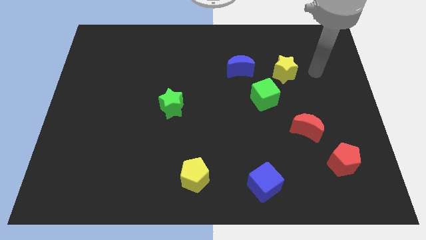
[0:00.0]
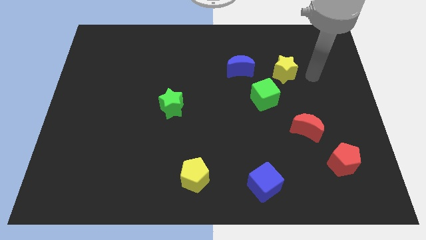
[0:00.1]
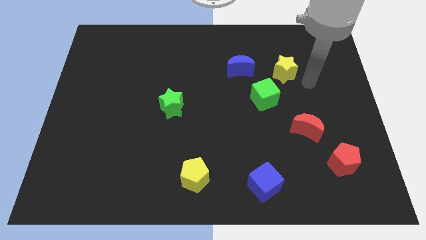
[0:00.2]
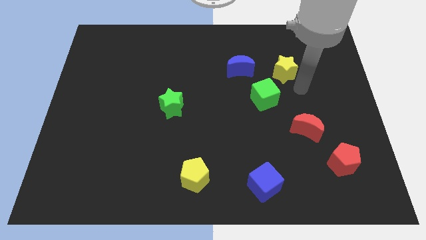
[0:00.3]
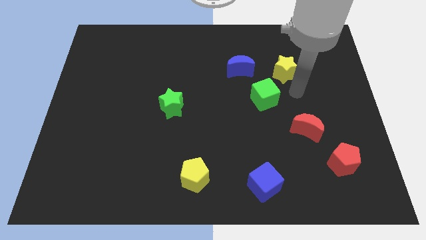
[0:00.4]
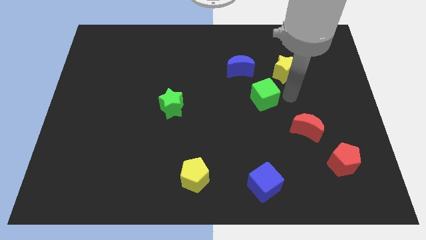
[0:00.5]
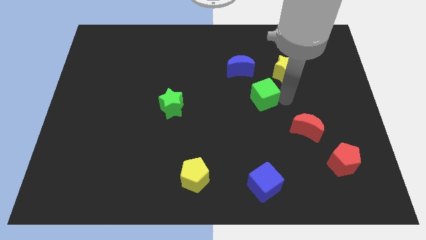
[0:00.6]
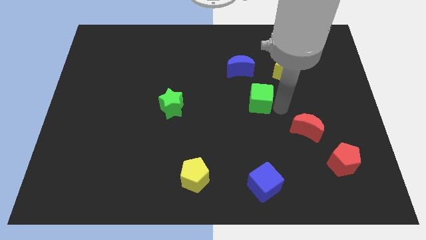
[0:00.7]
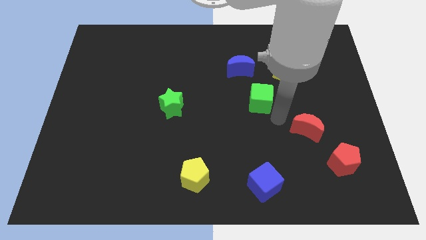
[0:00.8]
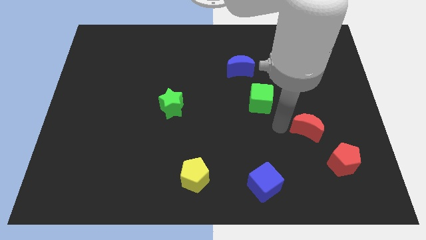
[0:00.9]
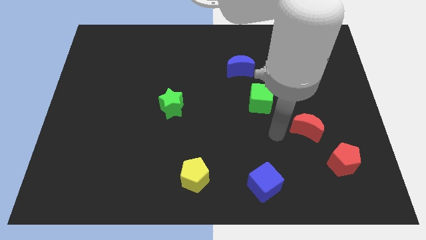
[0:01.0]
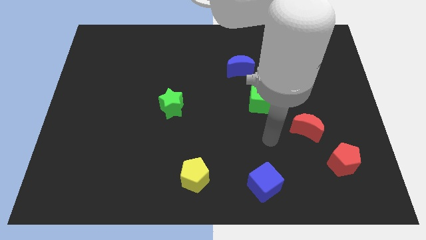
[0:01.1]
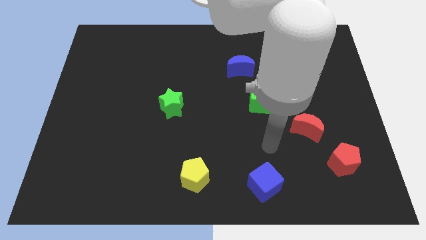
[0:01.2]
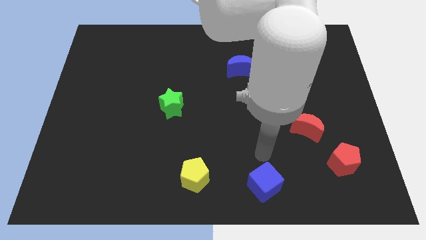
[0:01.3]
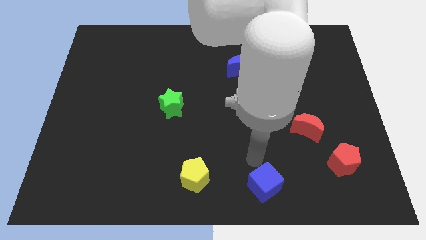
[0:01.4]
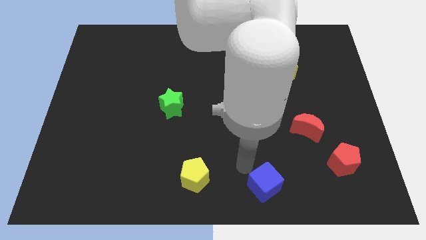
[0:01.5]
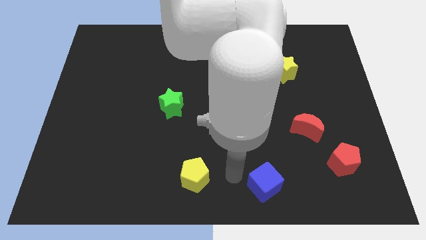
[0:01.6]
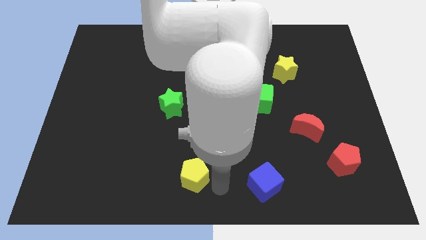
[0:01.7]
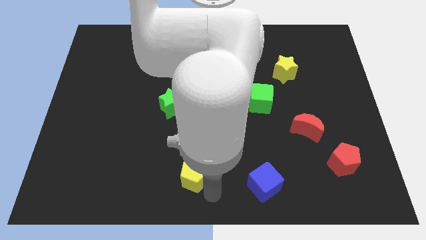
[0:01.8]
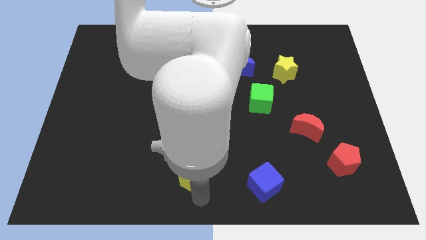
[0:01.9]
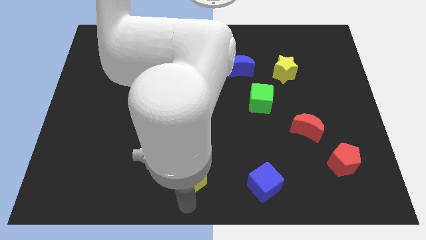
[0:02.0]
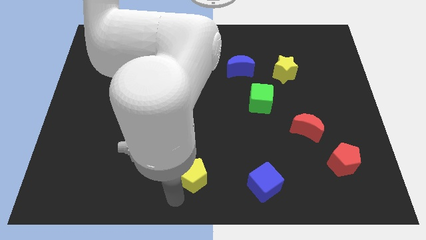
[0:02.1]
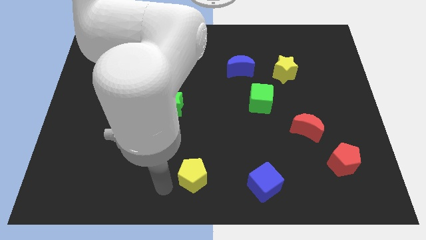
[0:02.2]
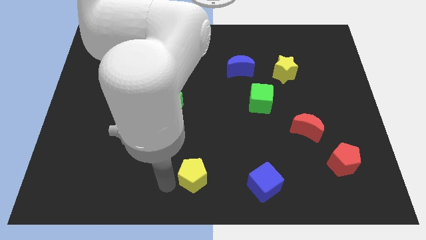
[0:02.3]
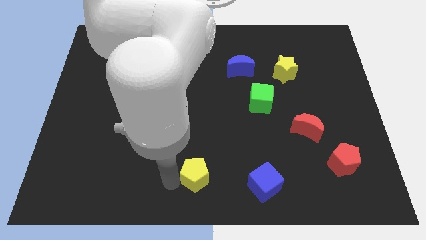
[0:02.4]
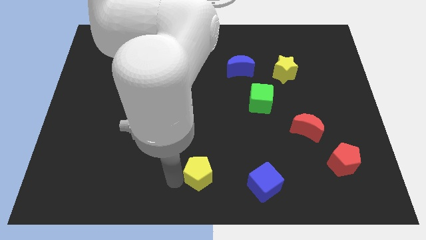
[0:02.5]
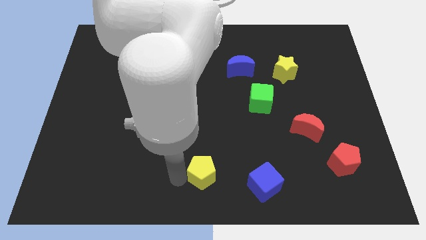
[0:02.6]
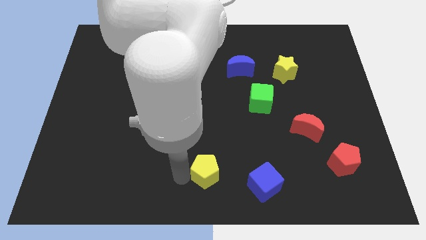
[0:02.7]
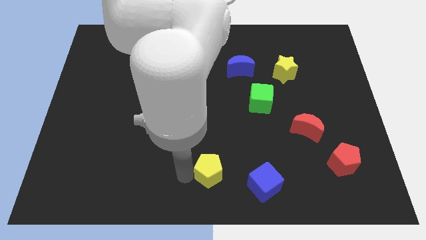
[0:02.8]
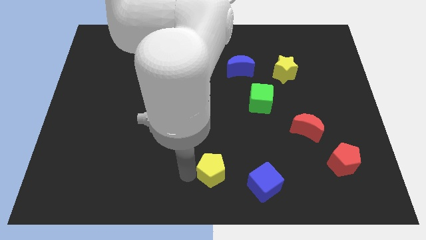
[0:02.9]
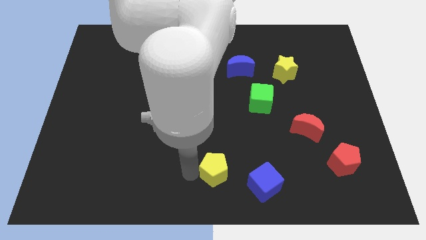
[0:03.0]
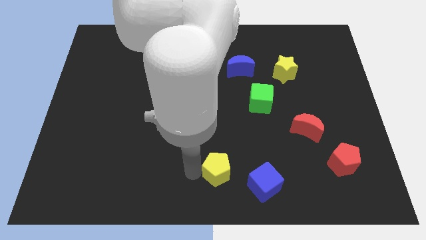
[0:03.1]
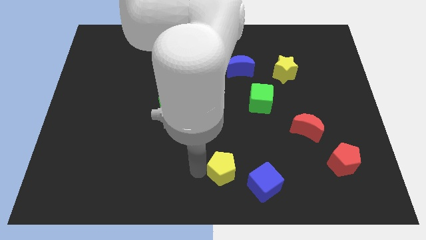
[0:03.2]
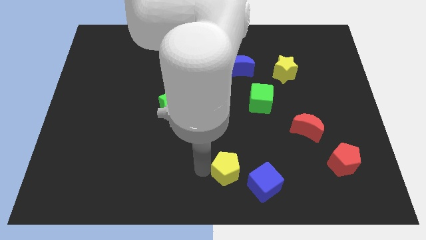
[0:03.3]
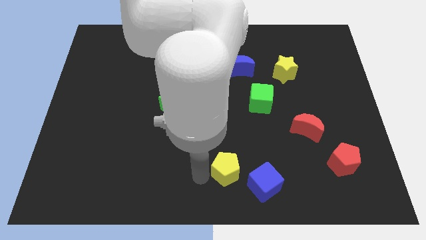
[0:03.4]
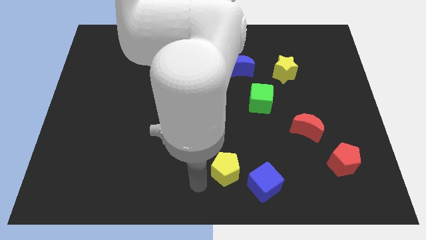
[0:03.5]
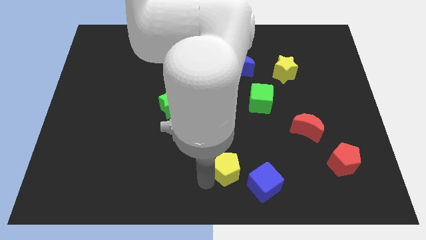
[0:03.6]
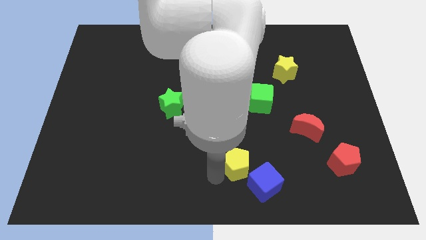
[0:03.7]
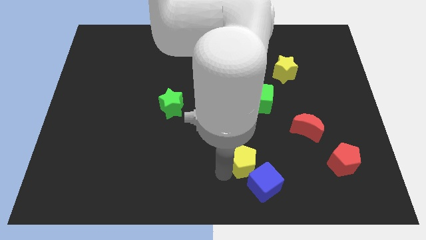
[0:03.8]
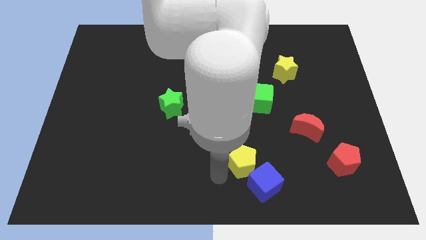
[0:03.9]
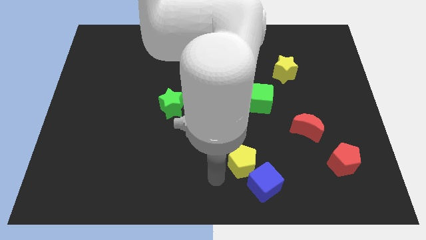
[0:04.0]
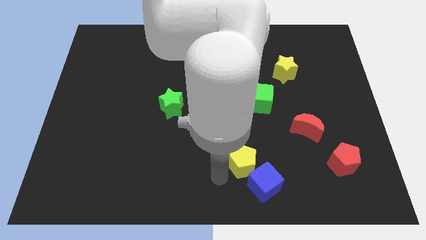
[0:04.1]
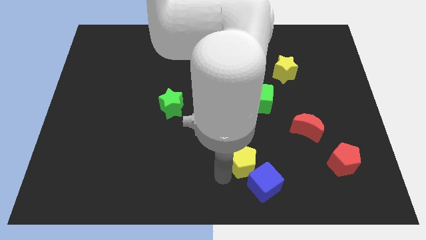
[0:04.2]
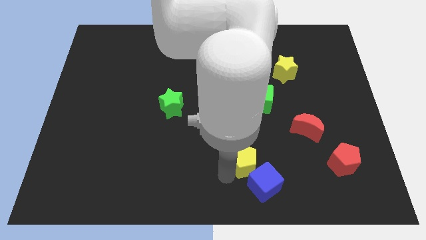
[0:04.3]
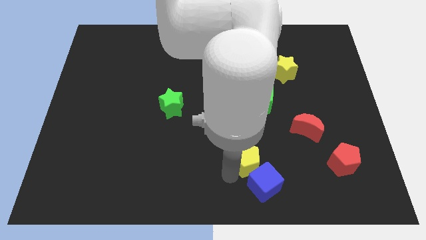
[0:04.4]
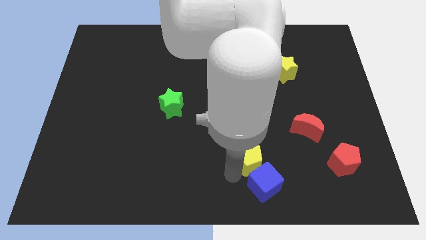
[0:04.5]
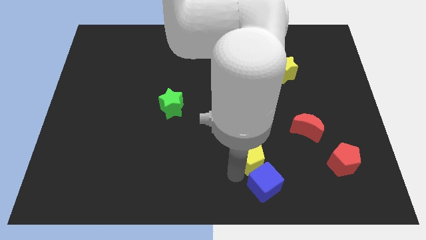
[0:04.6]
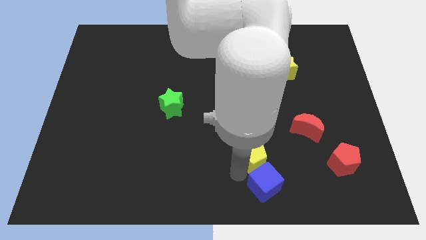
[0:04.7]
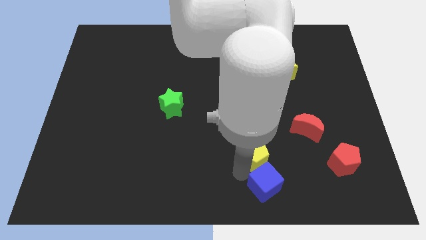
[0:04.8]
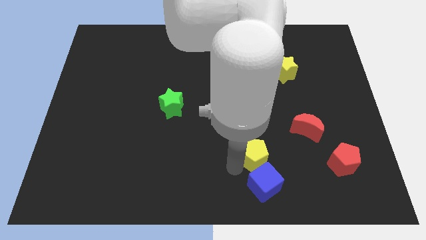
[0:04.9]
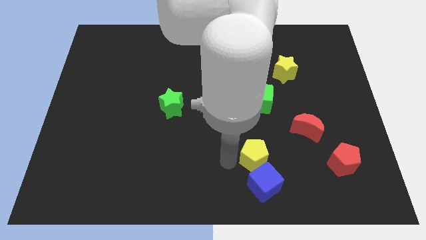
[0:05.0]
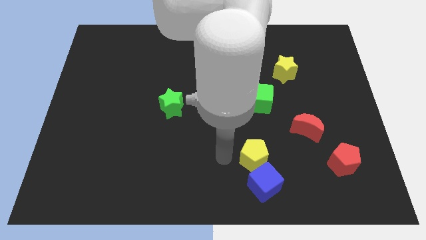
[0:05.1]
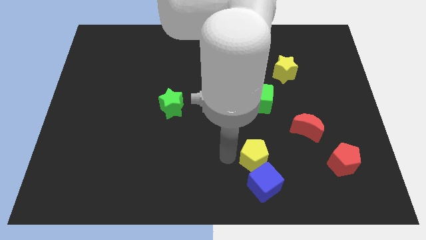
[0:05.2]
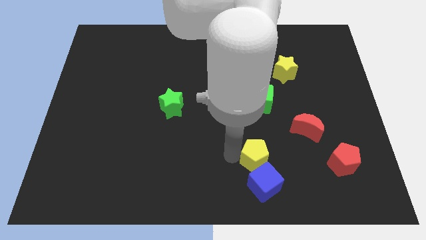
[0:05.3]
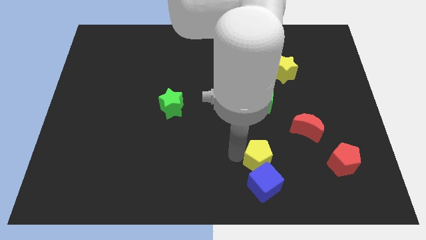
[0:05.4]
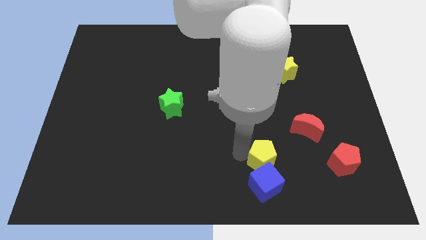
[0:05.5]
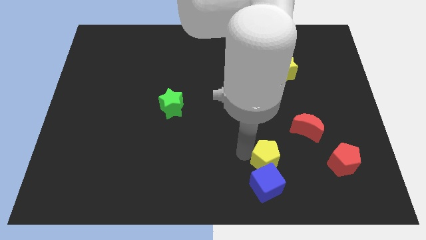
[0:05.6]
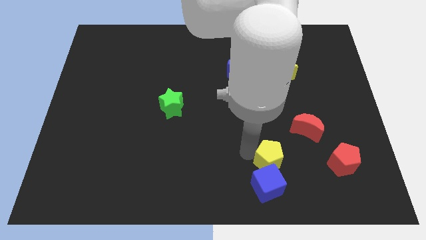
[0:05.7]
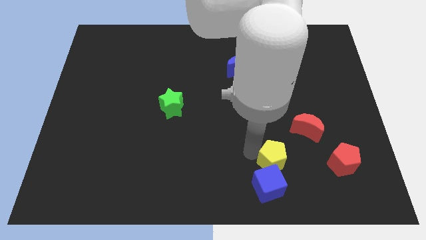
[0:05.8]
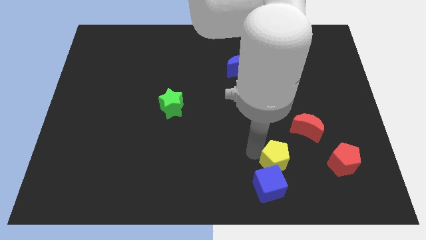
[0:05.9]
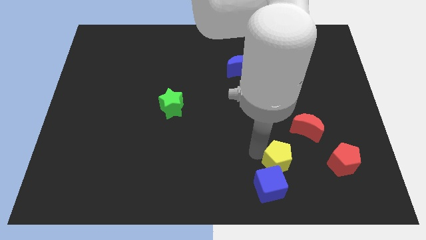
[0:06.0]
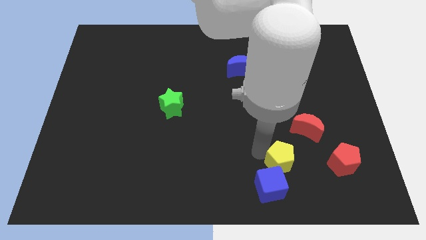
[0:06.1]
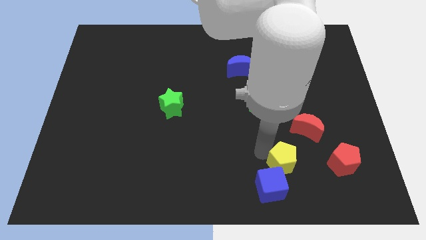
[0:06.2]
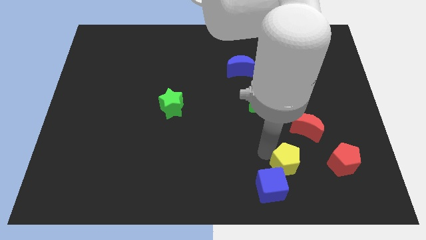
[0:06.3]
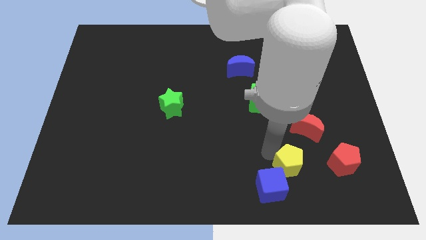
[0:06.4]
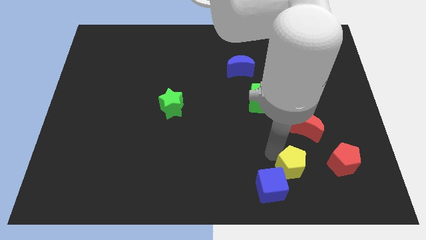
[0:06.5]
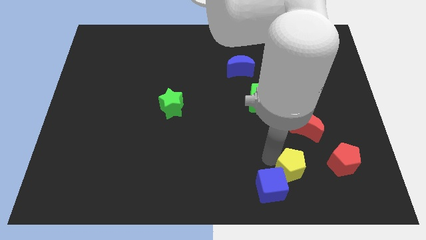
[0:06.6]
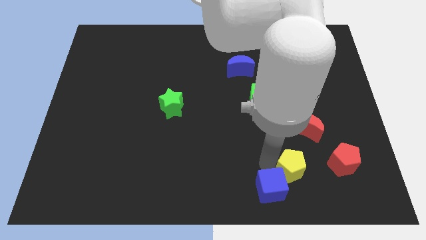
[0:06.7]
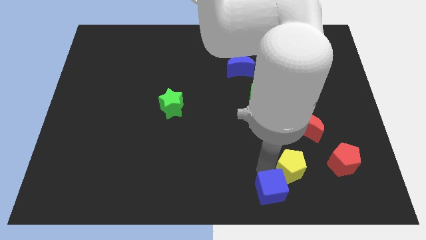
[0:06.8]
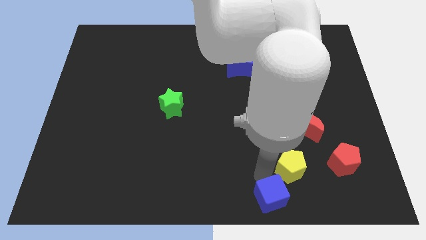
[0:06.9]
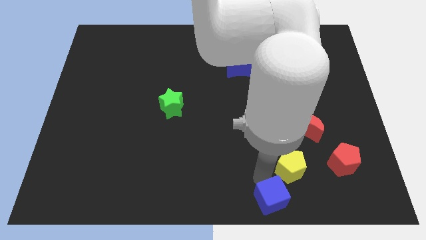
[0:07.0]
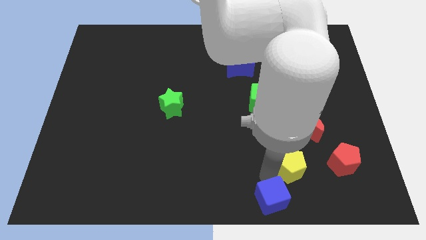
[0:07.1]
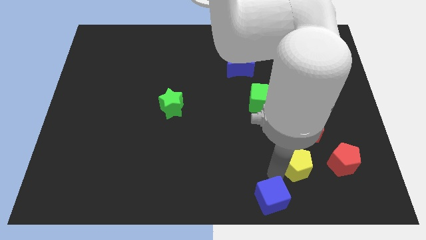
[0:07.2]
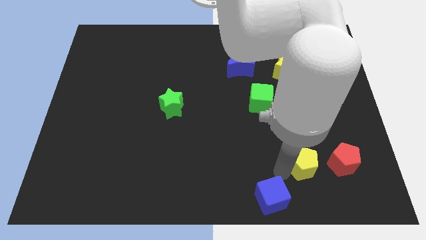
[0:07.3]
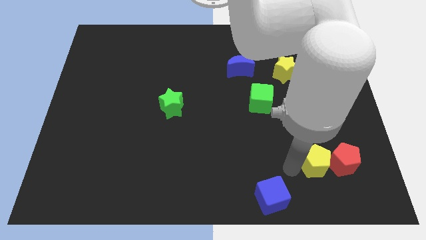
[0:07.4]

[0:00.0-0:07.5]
move the yellow pentagon towards the red pentagon
